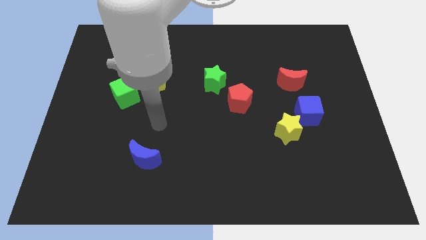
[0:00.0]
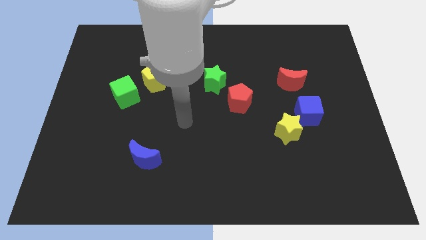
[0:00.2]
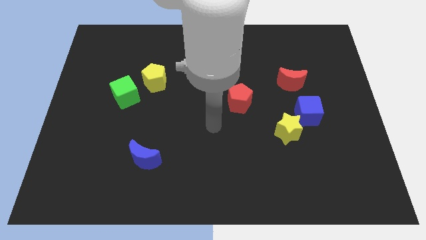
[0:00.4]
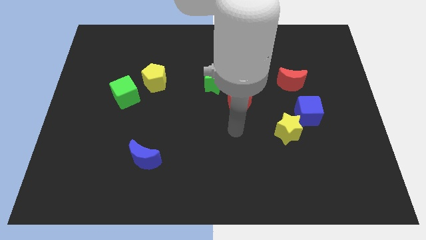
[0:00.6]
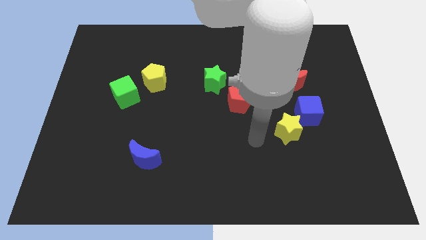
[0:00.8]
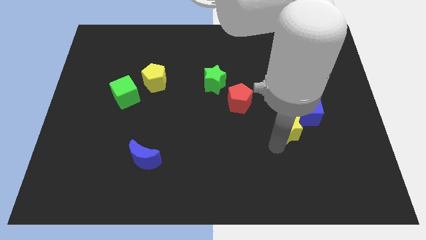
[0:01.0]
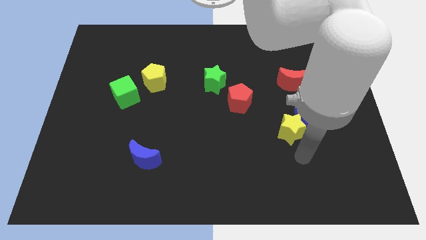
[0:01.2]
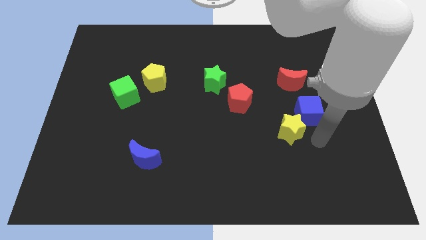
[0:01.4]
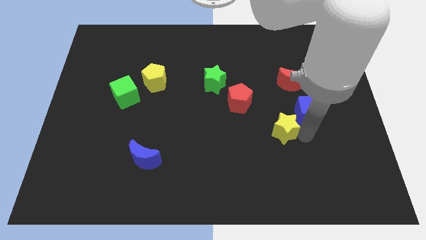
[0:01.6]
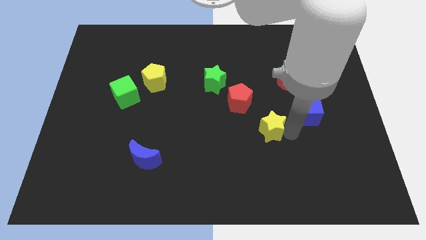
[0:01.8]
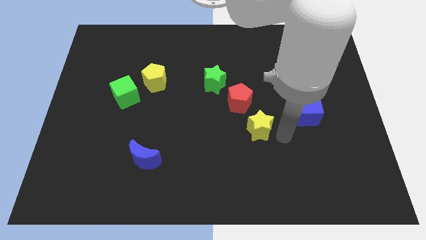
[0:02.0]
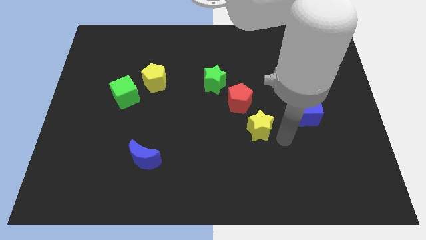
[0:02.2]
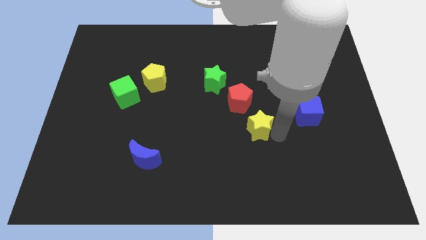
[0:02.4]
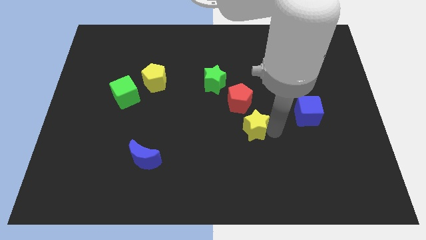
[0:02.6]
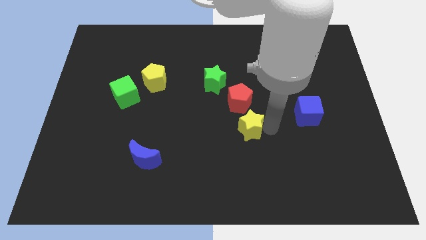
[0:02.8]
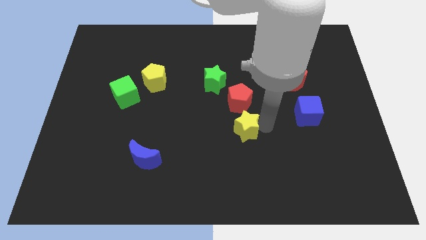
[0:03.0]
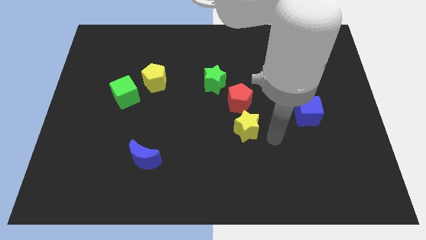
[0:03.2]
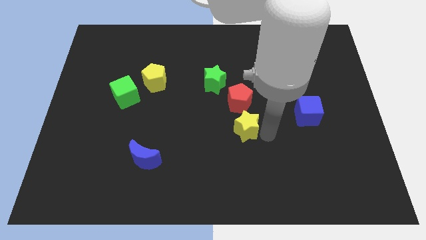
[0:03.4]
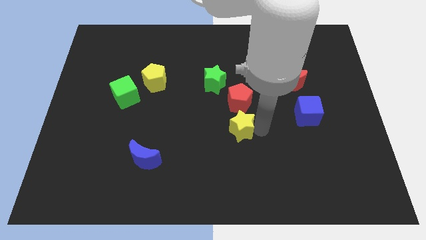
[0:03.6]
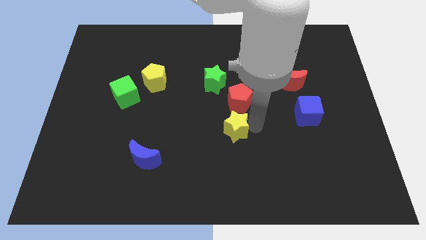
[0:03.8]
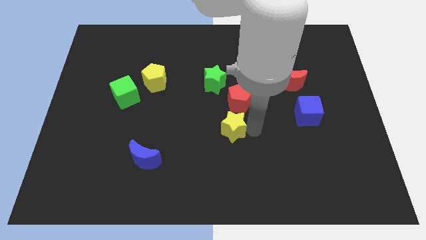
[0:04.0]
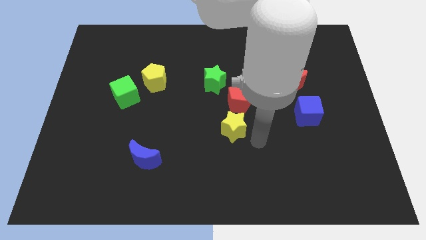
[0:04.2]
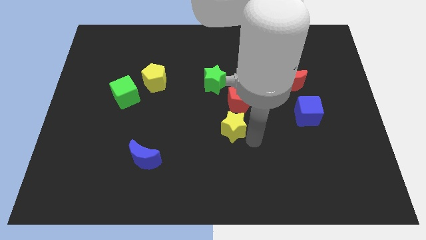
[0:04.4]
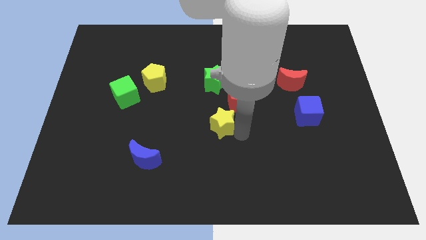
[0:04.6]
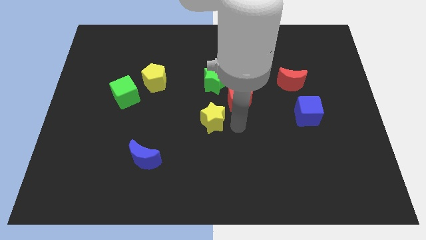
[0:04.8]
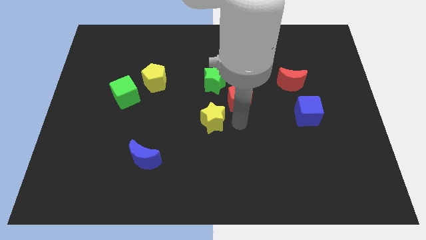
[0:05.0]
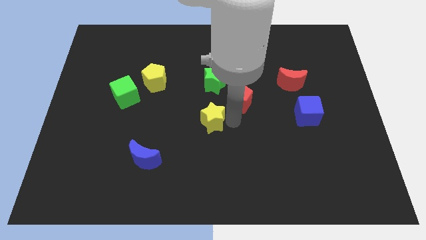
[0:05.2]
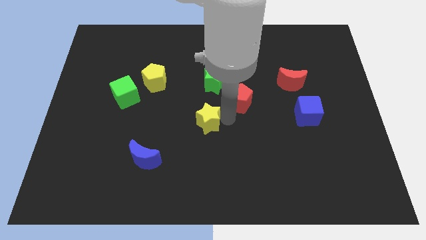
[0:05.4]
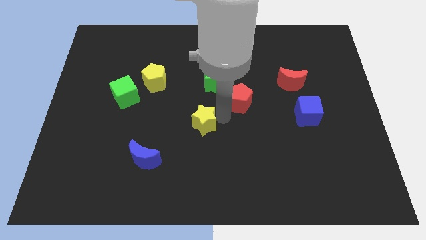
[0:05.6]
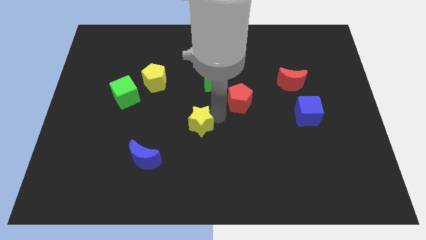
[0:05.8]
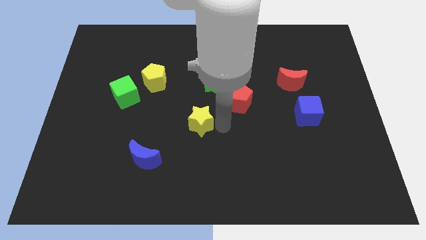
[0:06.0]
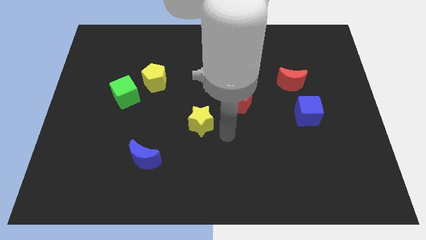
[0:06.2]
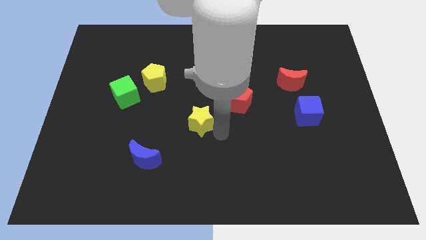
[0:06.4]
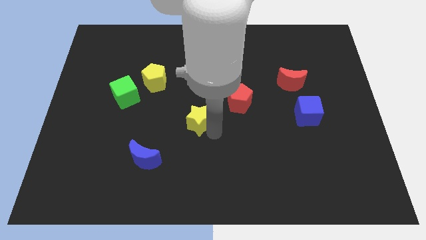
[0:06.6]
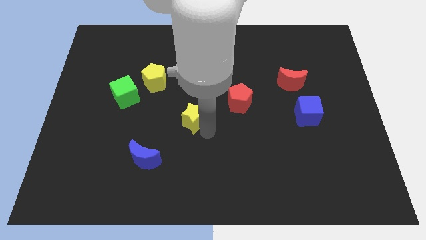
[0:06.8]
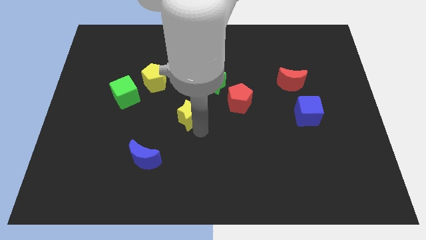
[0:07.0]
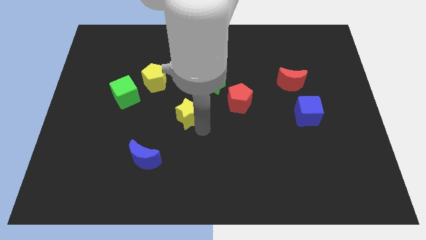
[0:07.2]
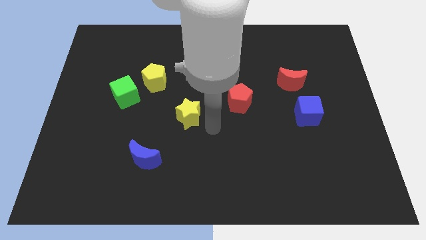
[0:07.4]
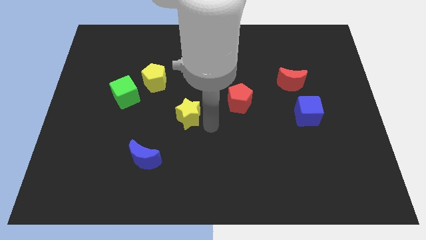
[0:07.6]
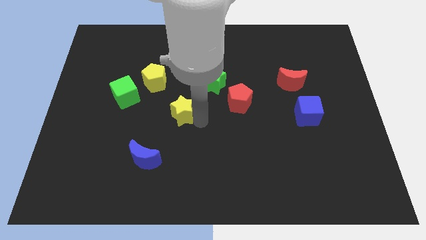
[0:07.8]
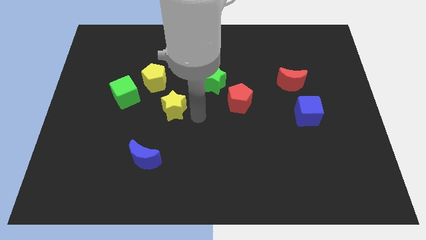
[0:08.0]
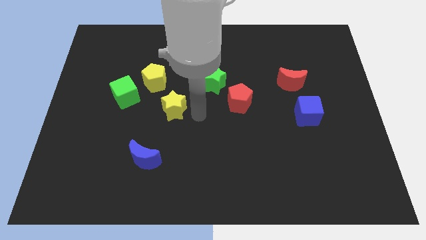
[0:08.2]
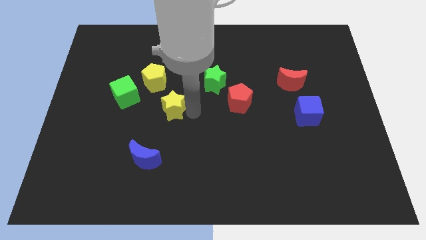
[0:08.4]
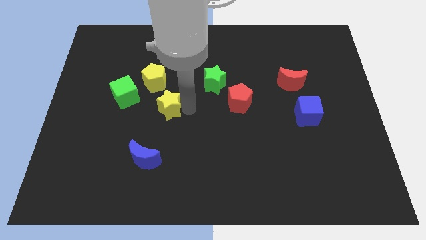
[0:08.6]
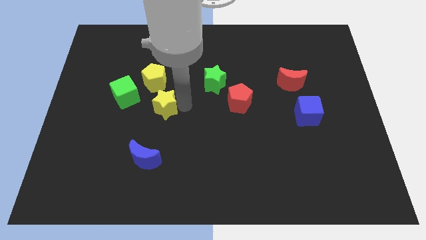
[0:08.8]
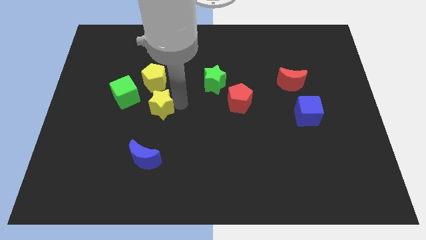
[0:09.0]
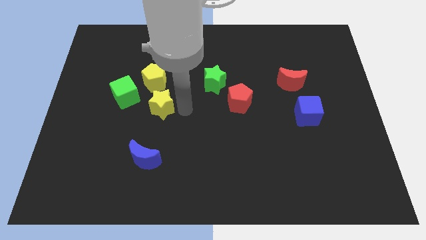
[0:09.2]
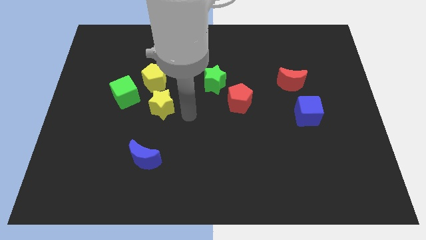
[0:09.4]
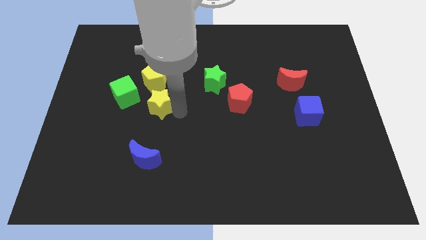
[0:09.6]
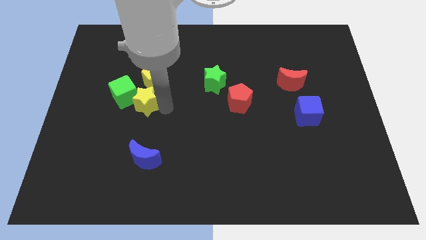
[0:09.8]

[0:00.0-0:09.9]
push the yellow star next to the green cube

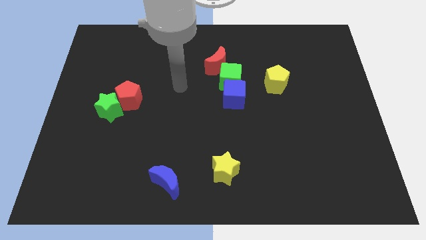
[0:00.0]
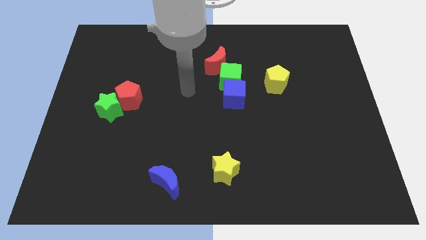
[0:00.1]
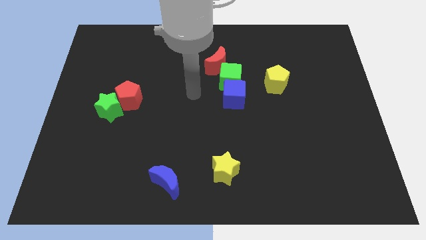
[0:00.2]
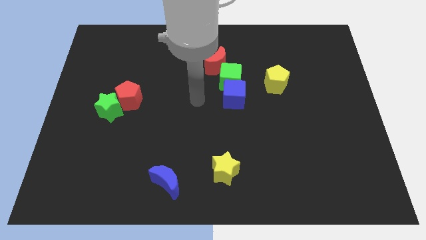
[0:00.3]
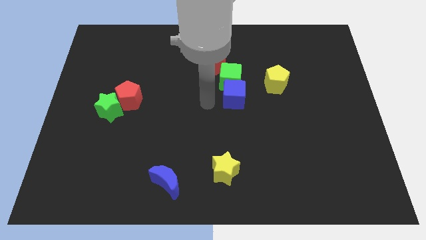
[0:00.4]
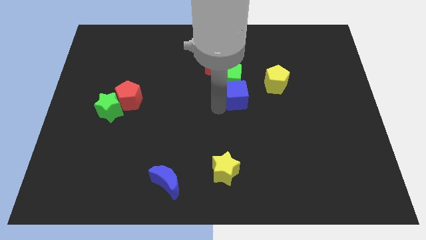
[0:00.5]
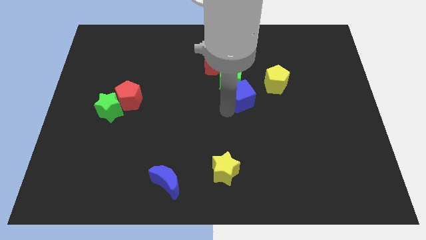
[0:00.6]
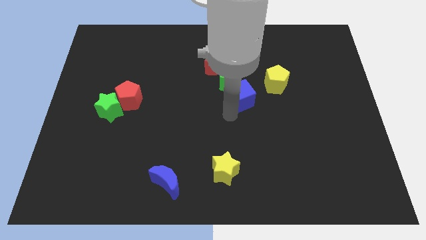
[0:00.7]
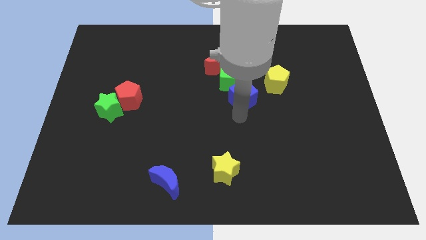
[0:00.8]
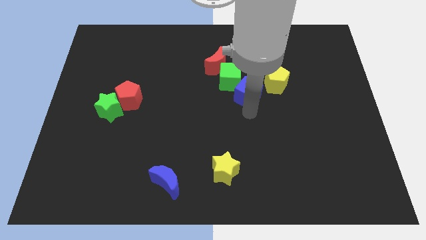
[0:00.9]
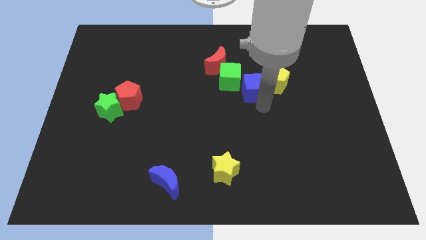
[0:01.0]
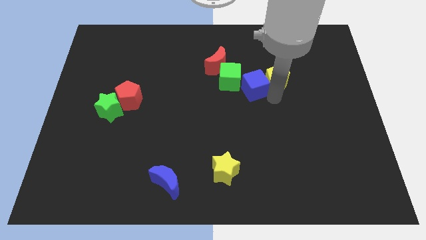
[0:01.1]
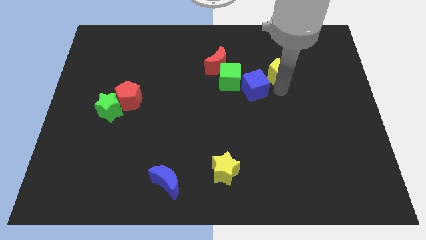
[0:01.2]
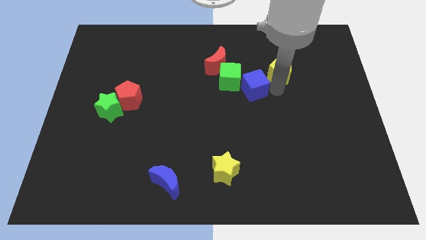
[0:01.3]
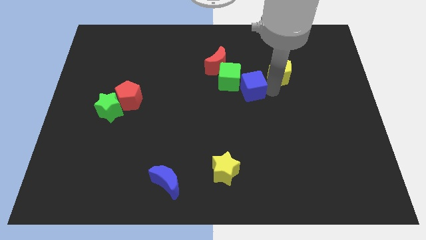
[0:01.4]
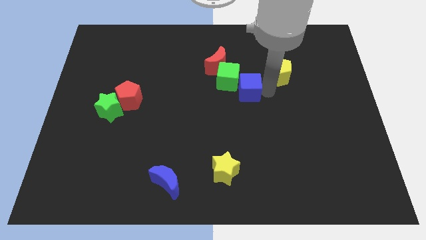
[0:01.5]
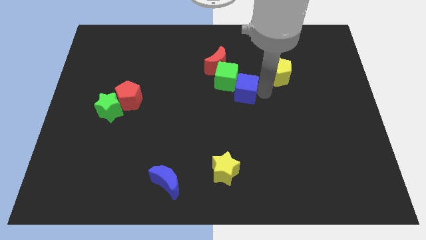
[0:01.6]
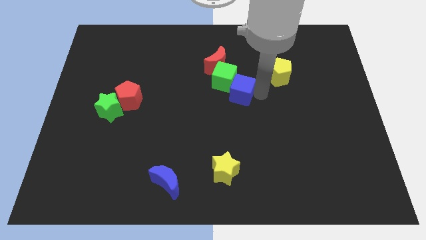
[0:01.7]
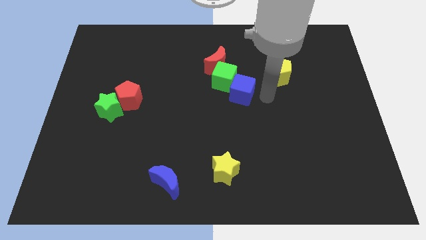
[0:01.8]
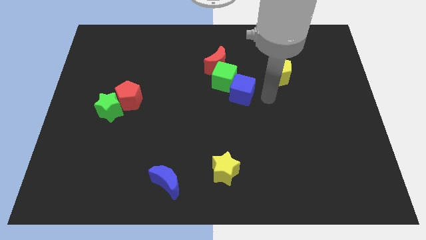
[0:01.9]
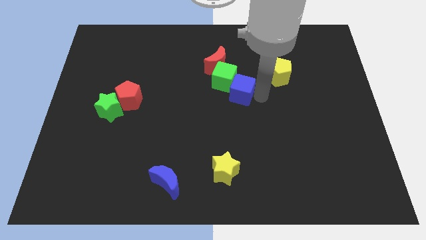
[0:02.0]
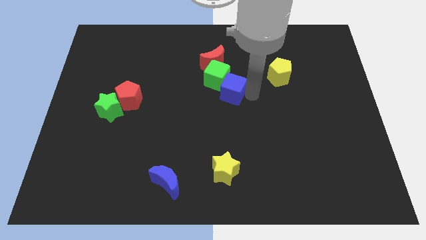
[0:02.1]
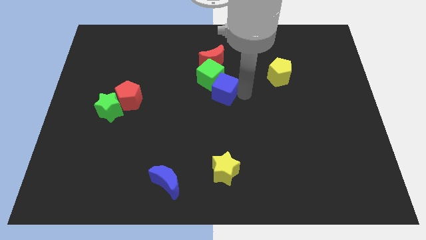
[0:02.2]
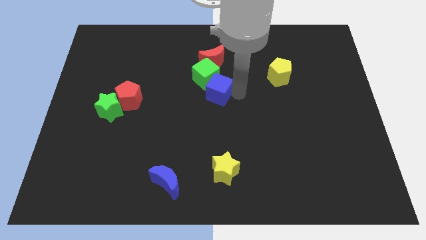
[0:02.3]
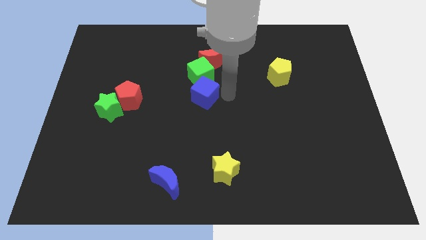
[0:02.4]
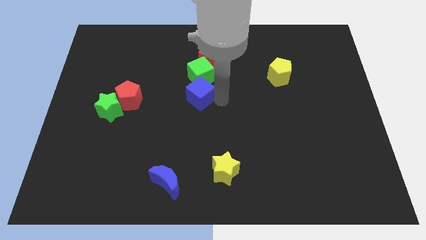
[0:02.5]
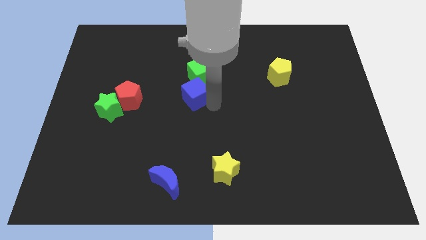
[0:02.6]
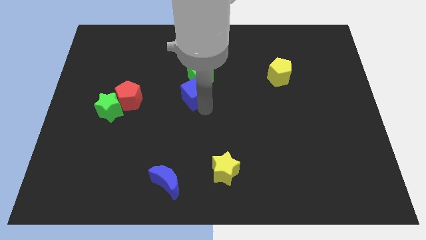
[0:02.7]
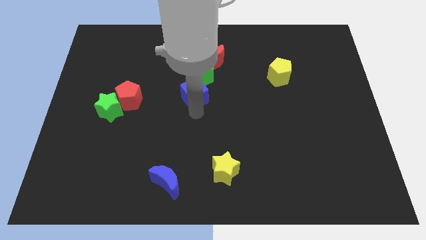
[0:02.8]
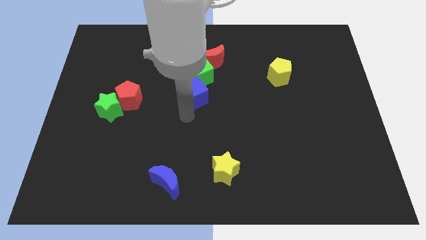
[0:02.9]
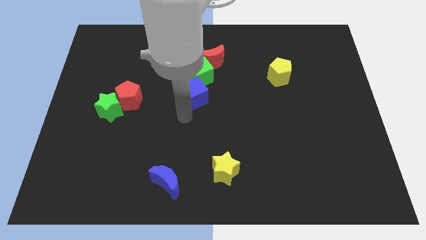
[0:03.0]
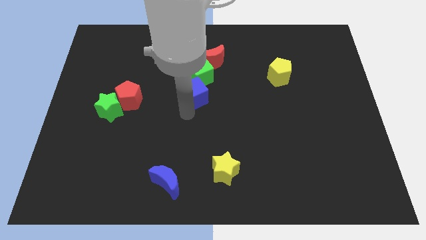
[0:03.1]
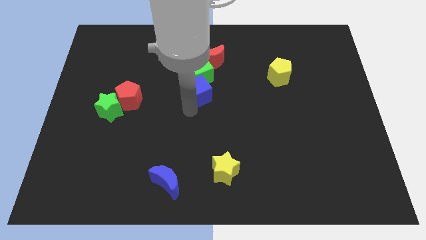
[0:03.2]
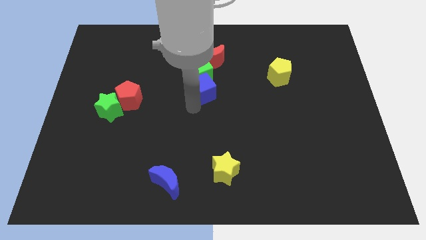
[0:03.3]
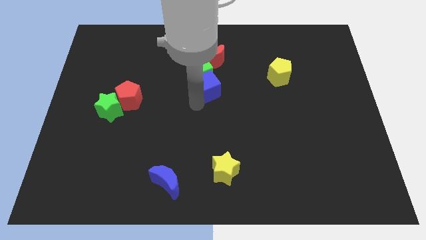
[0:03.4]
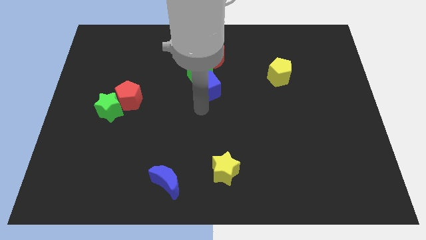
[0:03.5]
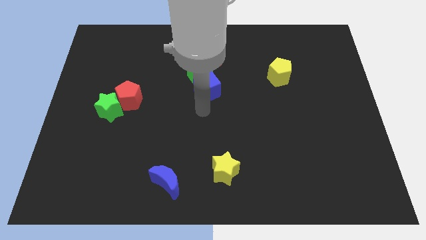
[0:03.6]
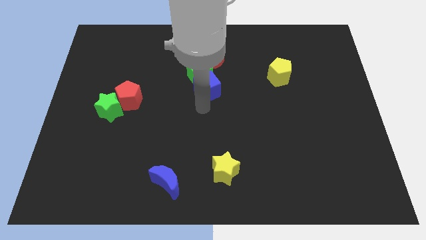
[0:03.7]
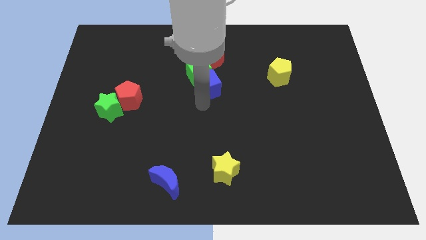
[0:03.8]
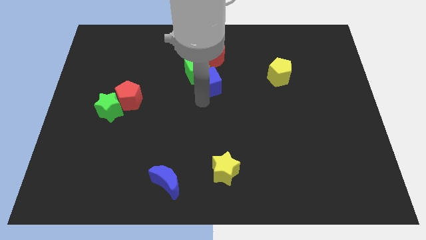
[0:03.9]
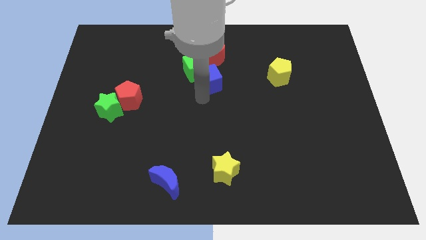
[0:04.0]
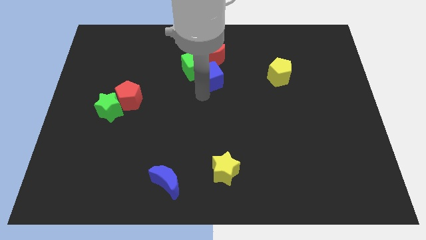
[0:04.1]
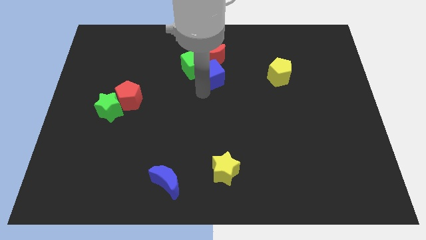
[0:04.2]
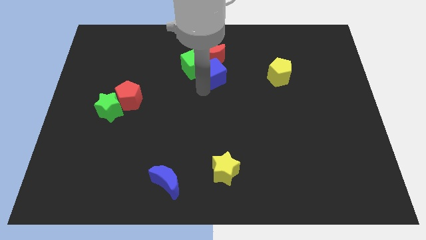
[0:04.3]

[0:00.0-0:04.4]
move the blue cube to the red moon
